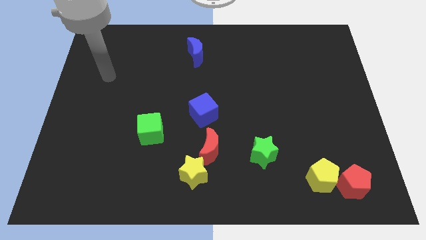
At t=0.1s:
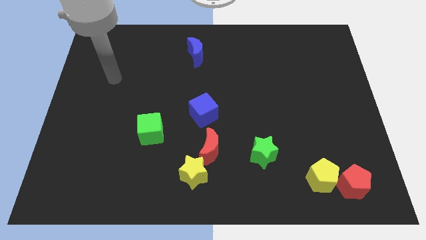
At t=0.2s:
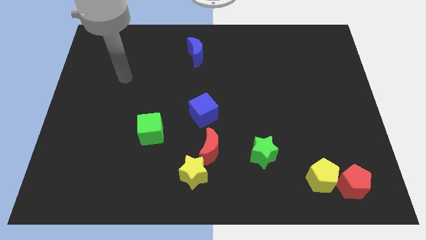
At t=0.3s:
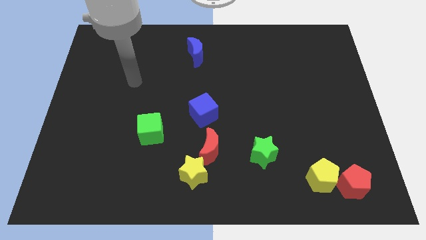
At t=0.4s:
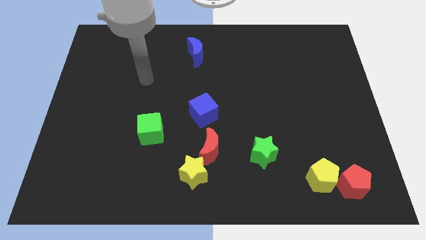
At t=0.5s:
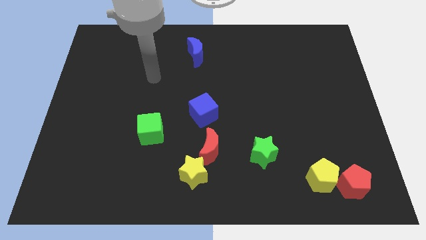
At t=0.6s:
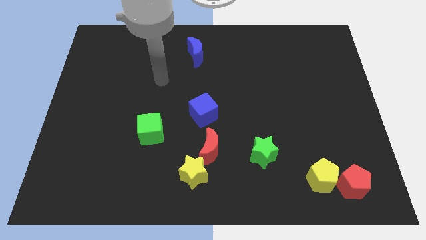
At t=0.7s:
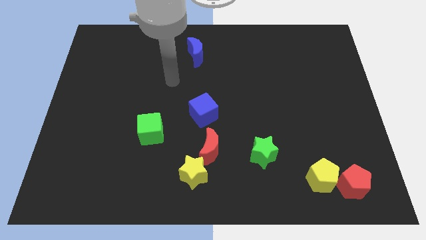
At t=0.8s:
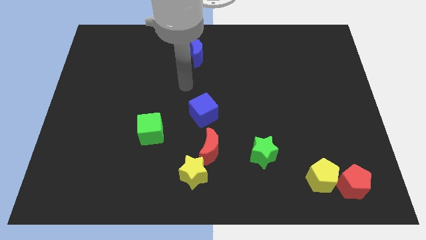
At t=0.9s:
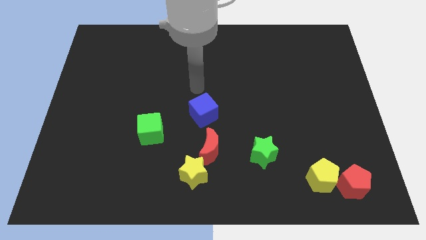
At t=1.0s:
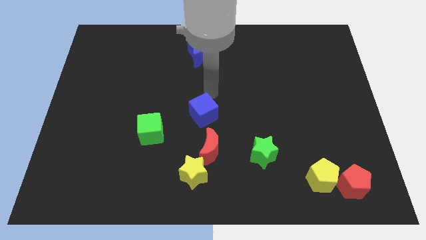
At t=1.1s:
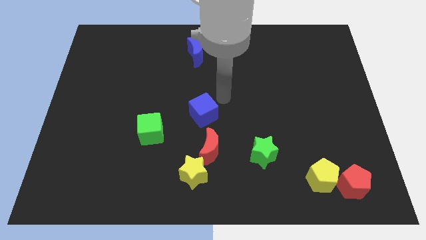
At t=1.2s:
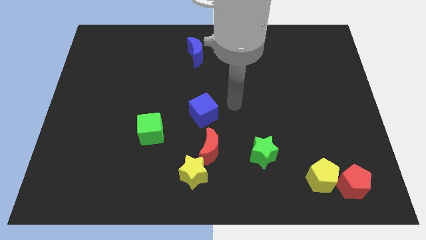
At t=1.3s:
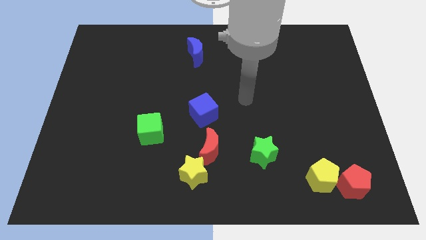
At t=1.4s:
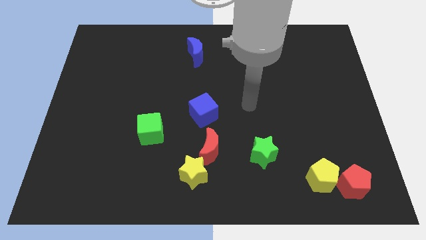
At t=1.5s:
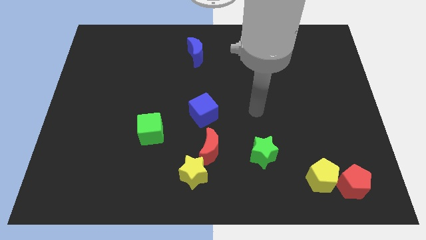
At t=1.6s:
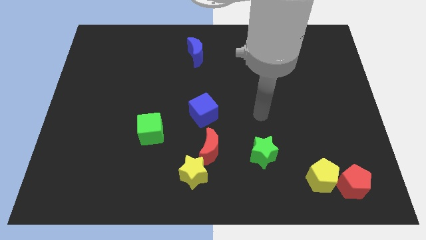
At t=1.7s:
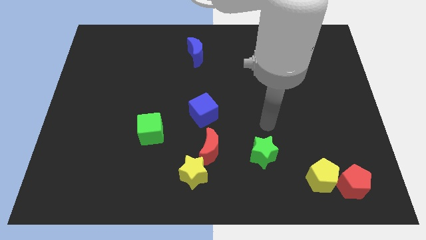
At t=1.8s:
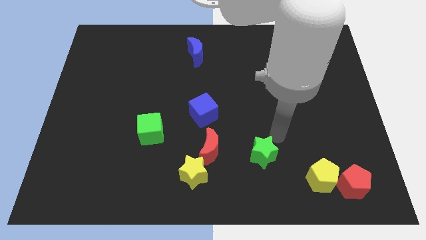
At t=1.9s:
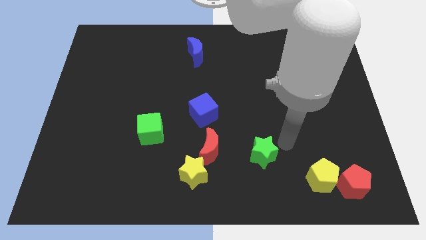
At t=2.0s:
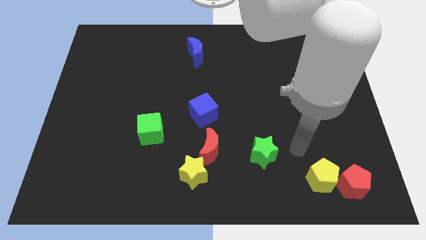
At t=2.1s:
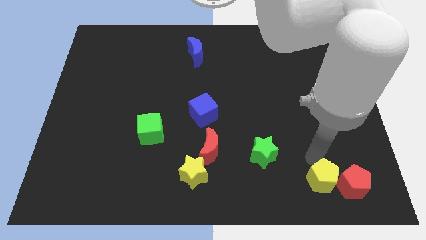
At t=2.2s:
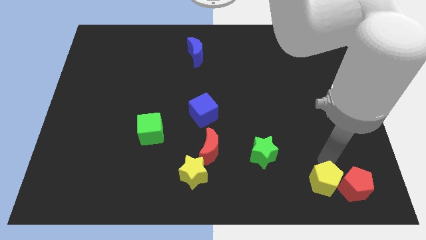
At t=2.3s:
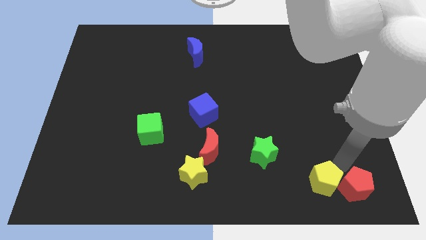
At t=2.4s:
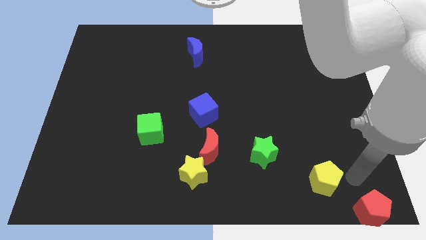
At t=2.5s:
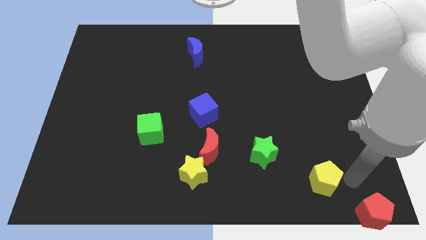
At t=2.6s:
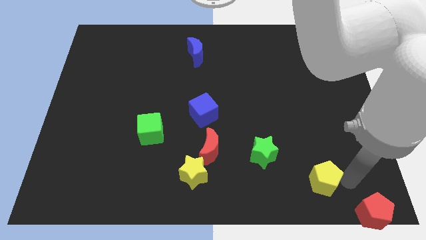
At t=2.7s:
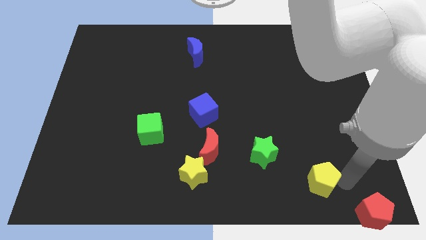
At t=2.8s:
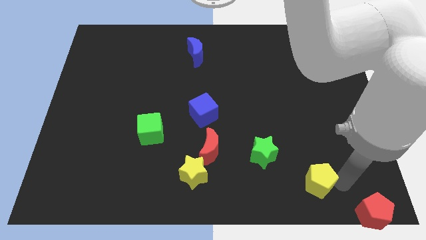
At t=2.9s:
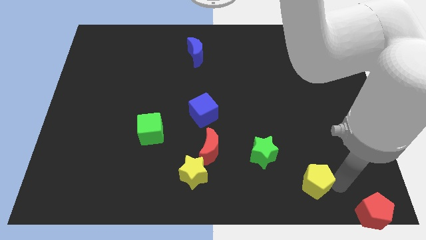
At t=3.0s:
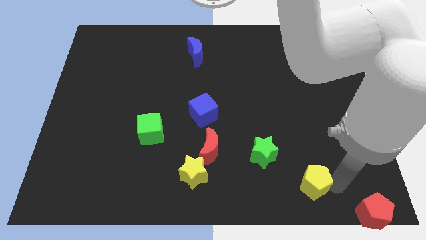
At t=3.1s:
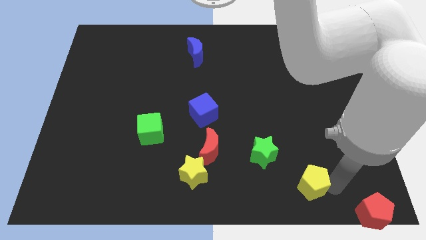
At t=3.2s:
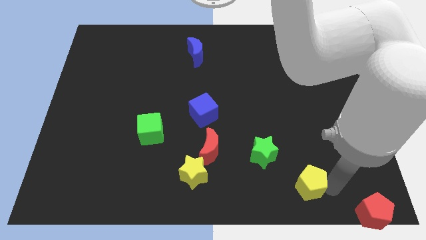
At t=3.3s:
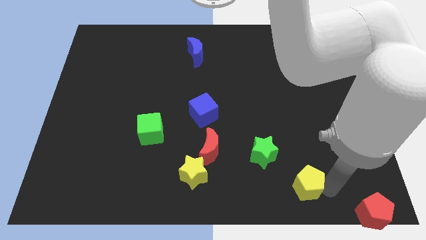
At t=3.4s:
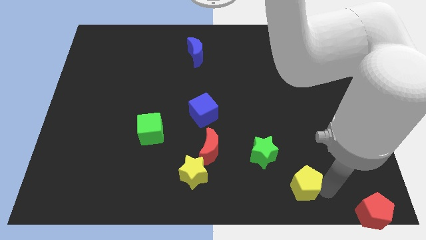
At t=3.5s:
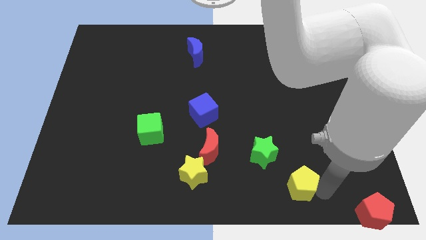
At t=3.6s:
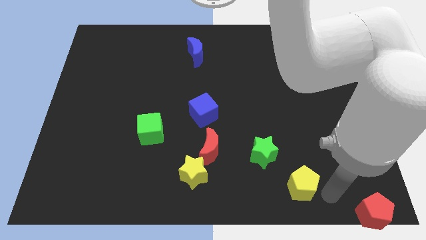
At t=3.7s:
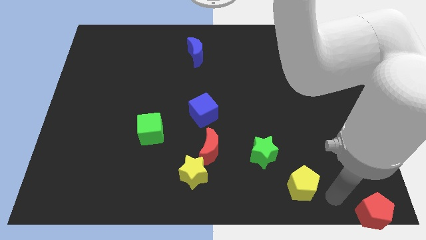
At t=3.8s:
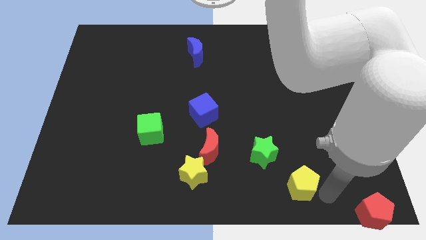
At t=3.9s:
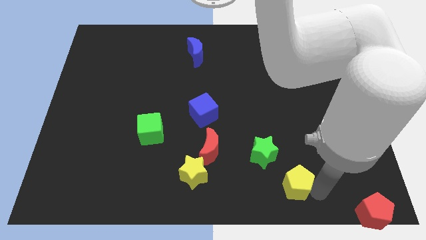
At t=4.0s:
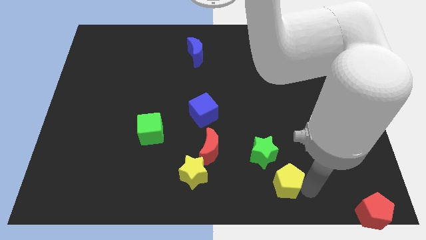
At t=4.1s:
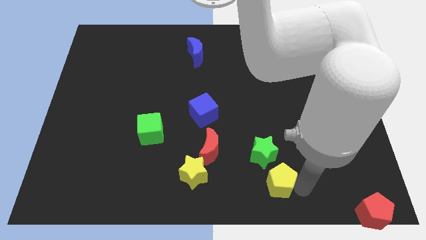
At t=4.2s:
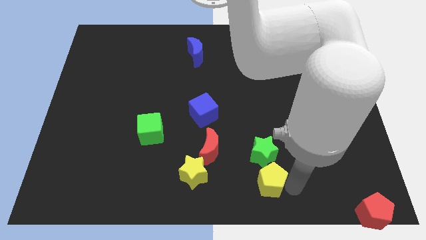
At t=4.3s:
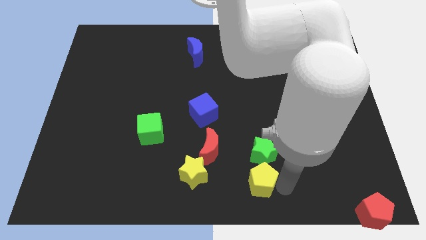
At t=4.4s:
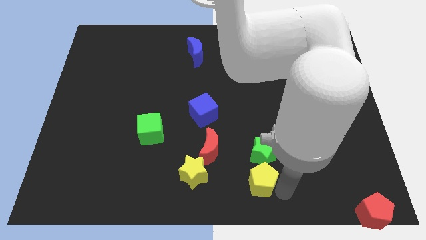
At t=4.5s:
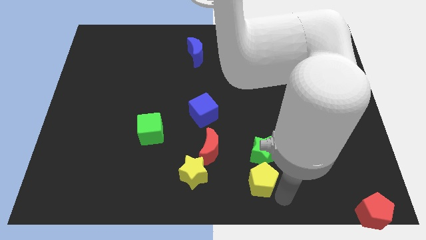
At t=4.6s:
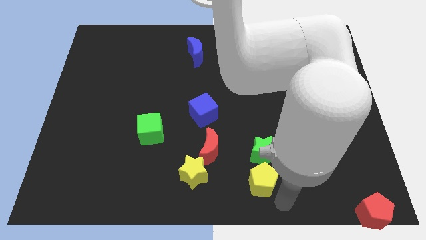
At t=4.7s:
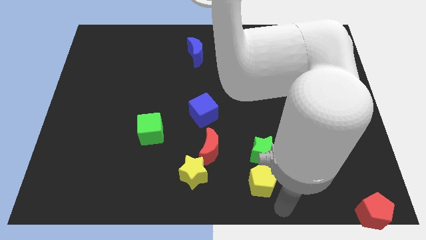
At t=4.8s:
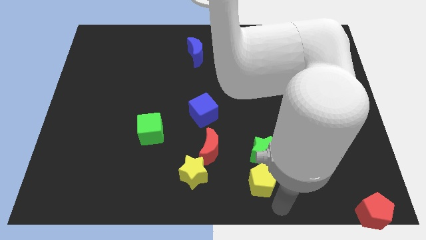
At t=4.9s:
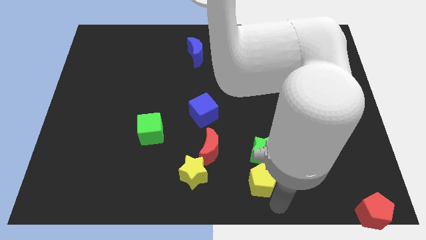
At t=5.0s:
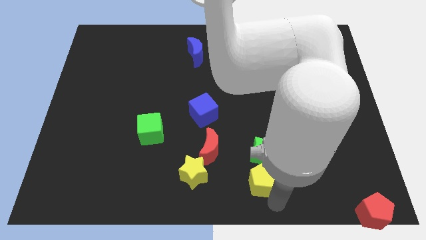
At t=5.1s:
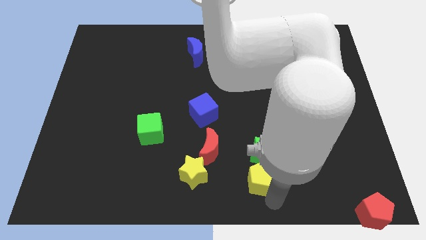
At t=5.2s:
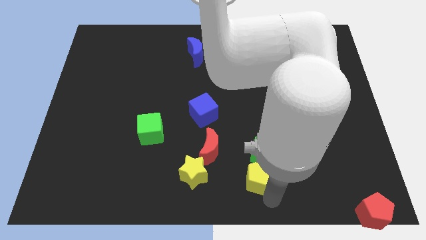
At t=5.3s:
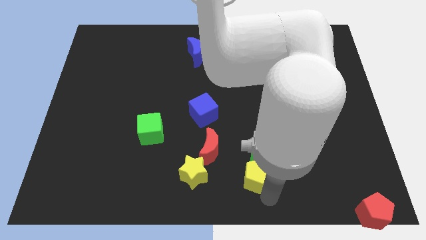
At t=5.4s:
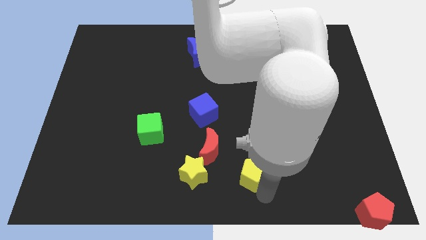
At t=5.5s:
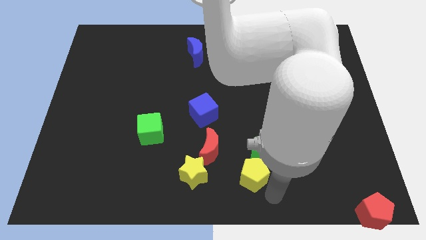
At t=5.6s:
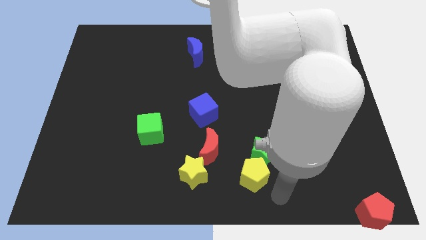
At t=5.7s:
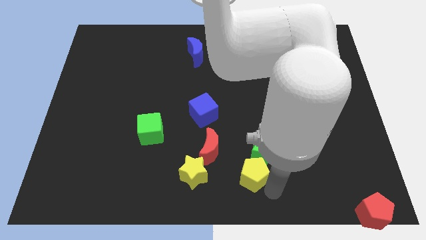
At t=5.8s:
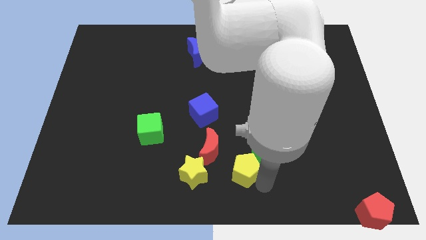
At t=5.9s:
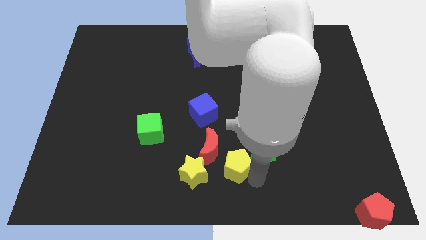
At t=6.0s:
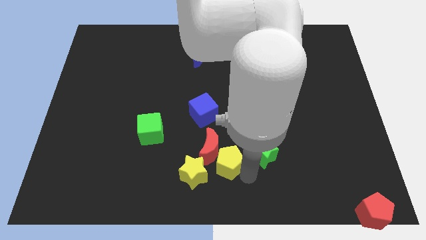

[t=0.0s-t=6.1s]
put the yellow pentagon to the top right side of the yellow star
